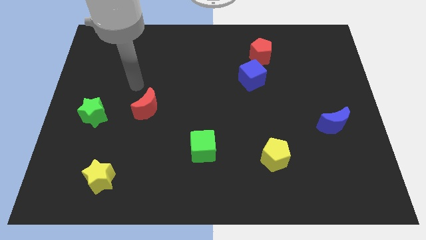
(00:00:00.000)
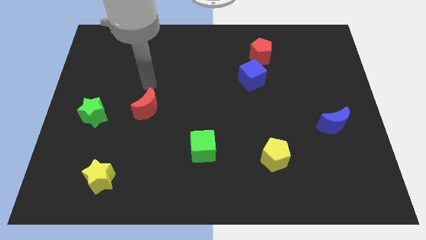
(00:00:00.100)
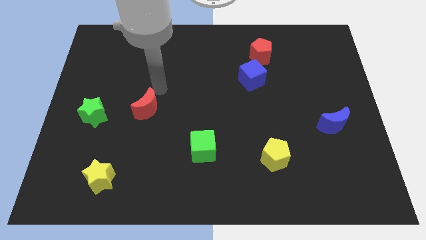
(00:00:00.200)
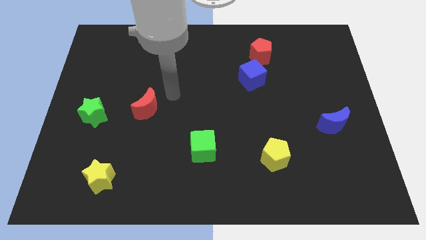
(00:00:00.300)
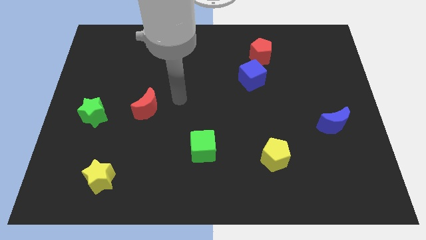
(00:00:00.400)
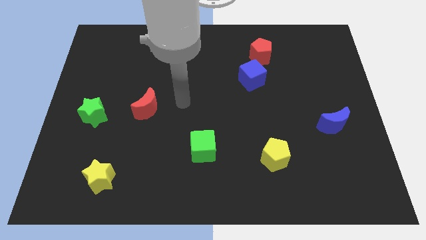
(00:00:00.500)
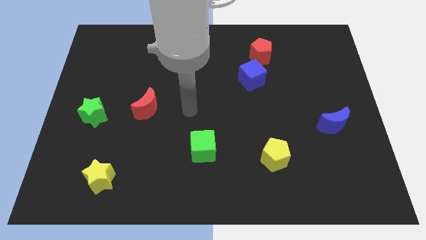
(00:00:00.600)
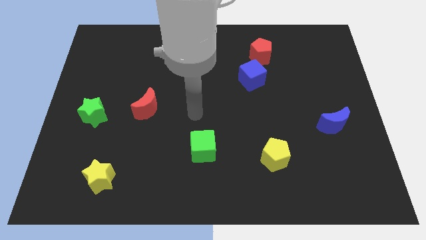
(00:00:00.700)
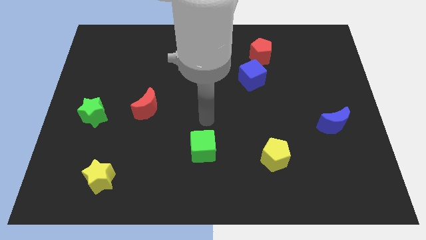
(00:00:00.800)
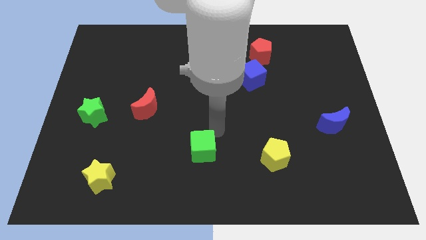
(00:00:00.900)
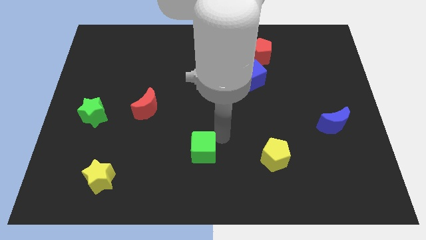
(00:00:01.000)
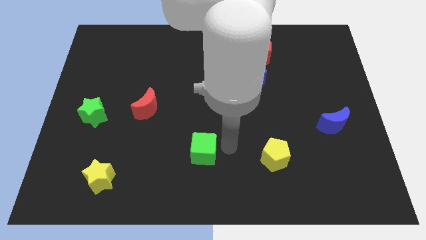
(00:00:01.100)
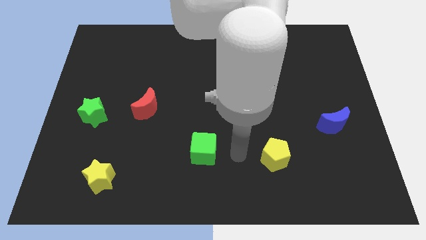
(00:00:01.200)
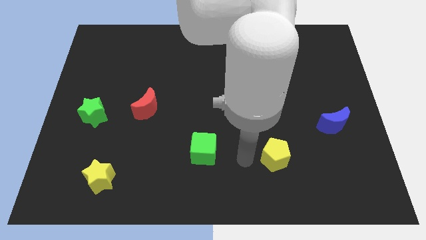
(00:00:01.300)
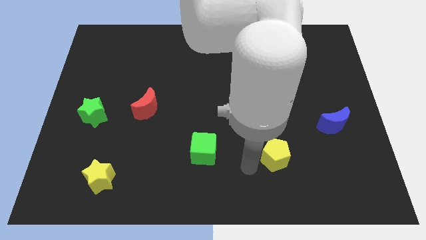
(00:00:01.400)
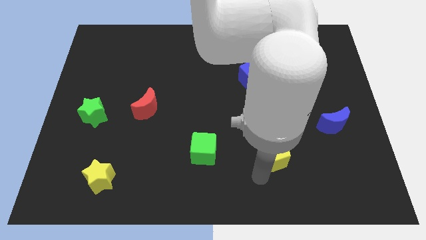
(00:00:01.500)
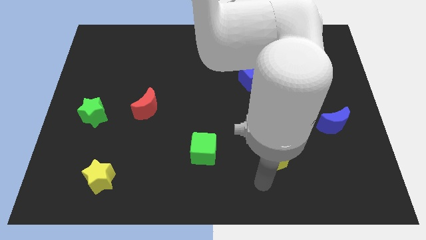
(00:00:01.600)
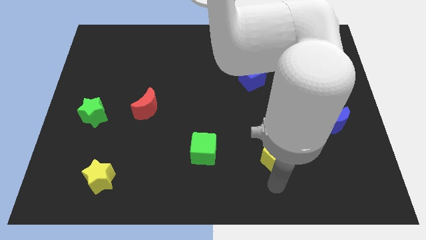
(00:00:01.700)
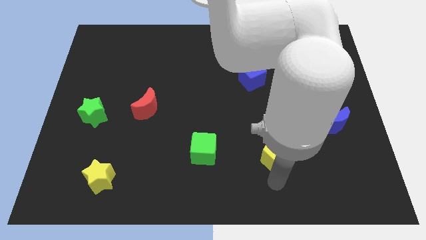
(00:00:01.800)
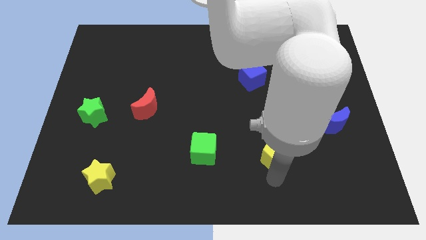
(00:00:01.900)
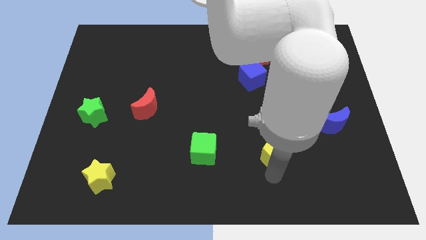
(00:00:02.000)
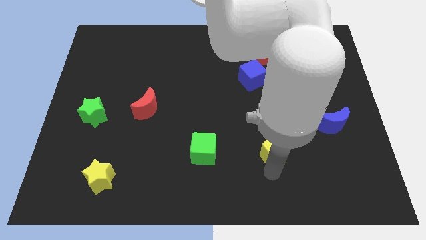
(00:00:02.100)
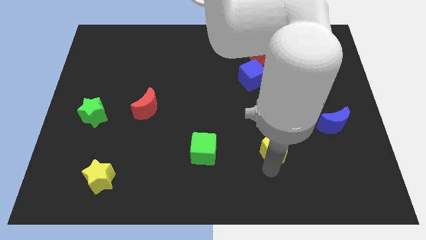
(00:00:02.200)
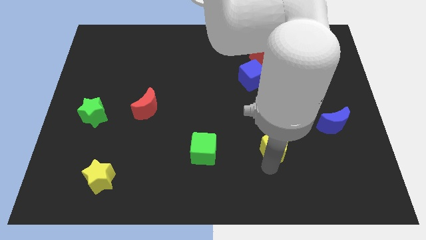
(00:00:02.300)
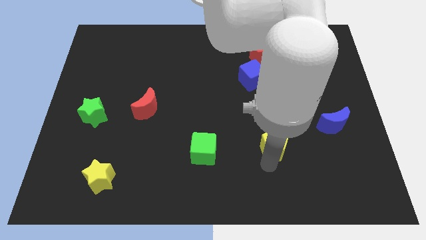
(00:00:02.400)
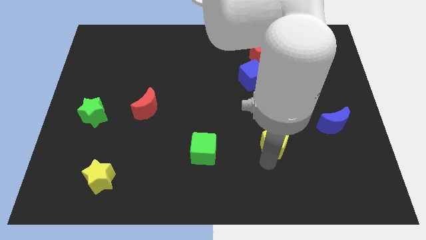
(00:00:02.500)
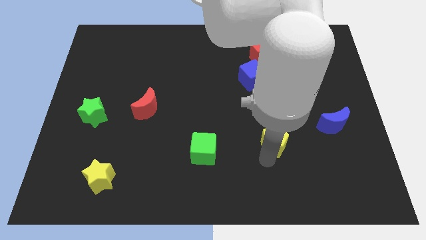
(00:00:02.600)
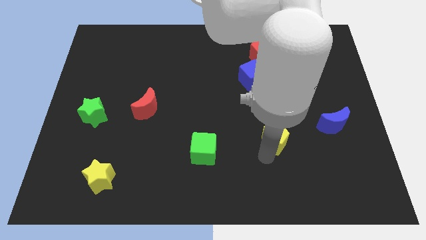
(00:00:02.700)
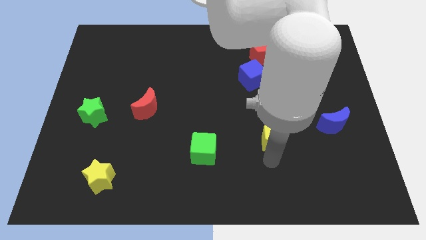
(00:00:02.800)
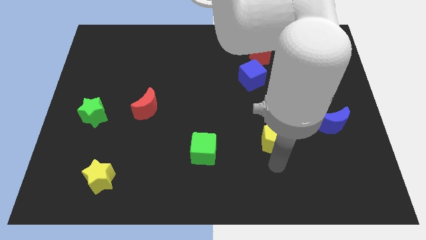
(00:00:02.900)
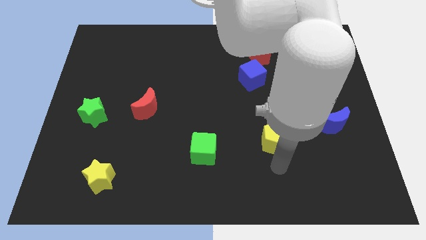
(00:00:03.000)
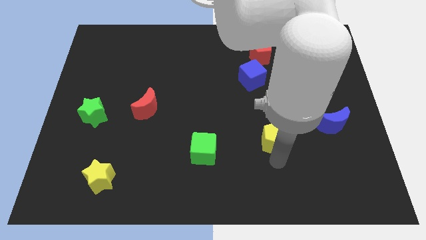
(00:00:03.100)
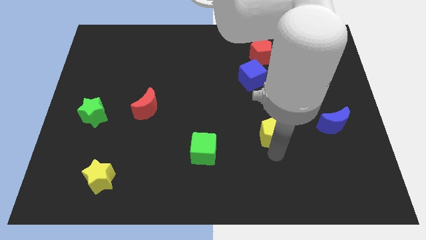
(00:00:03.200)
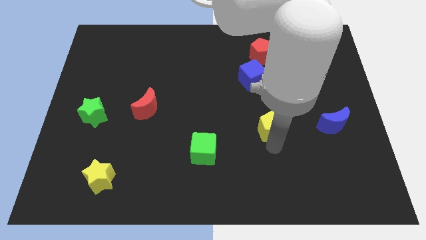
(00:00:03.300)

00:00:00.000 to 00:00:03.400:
move the yellow pentagon a little up

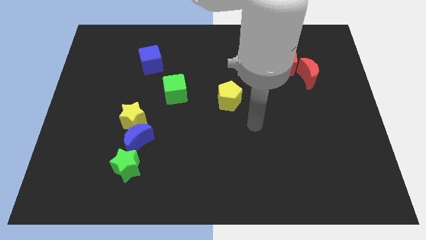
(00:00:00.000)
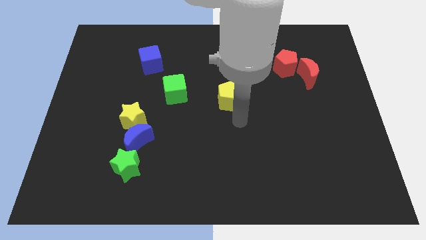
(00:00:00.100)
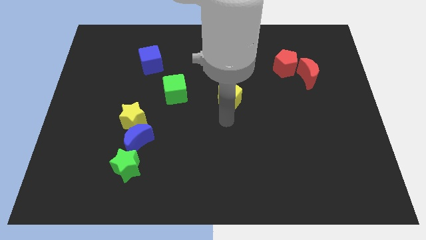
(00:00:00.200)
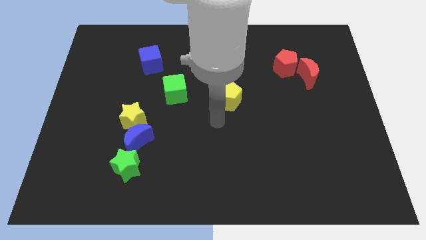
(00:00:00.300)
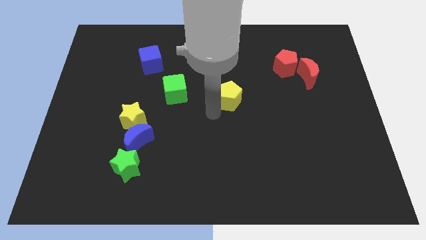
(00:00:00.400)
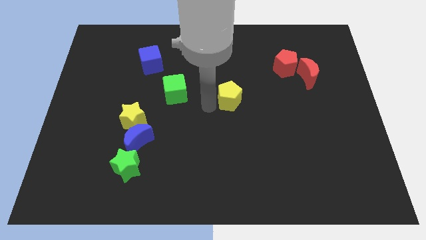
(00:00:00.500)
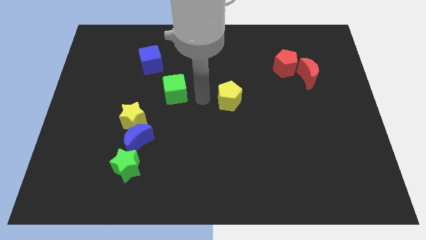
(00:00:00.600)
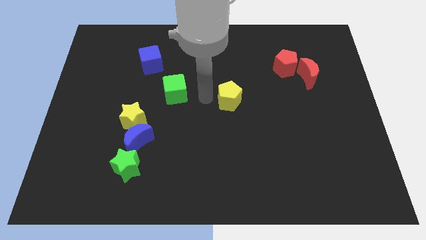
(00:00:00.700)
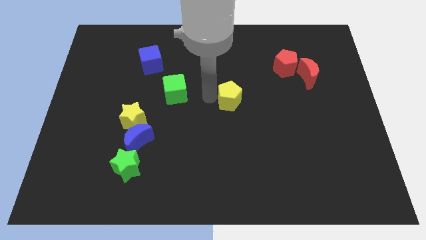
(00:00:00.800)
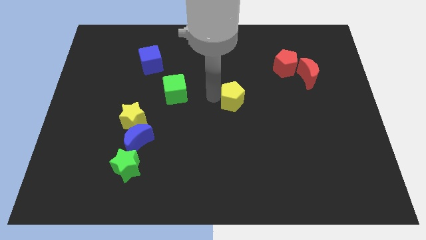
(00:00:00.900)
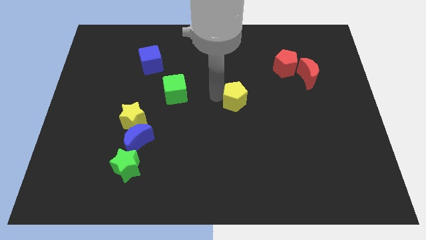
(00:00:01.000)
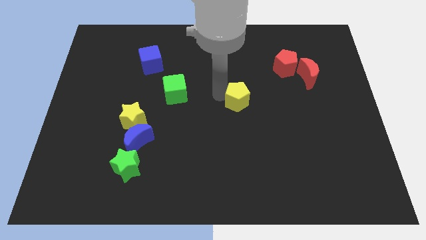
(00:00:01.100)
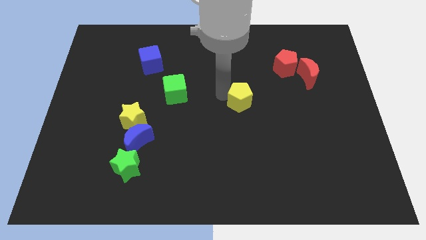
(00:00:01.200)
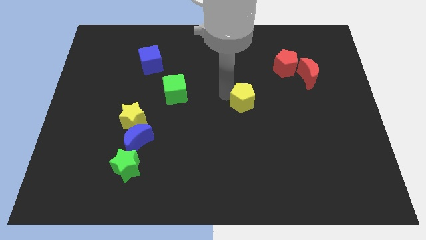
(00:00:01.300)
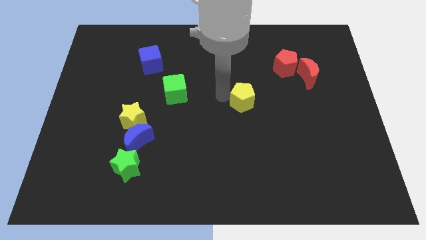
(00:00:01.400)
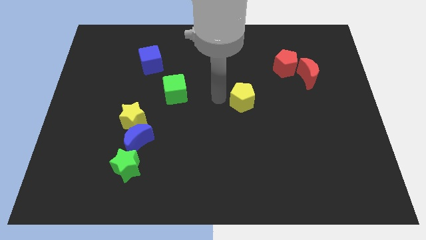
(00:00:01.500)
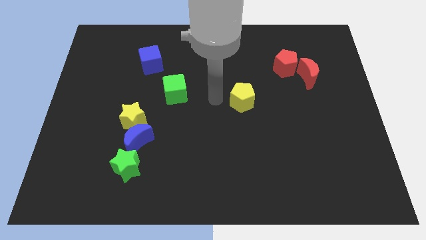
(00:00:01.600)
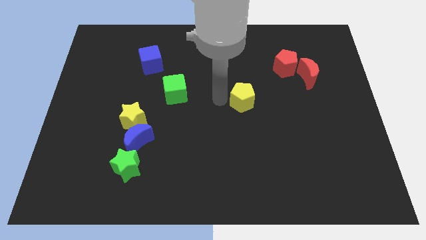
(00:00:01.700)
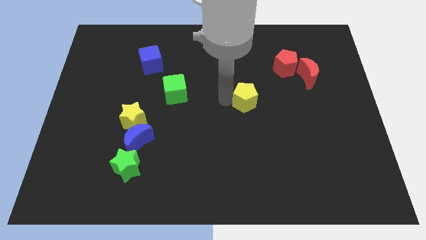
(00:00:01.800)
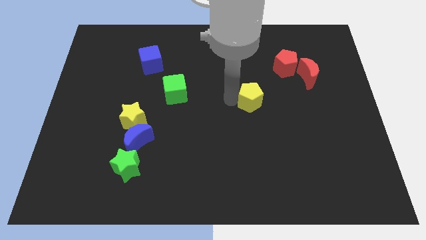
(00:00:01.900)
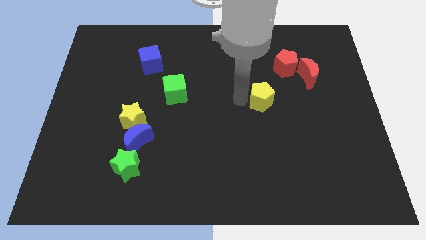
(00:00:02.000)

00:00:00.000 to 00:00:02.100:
move the yellow pentagon slightly right

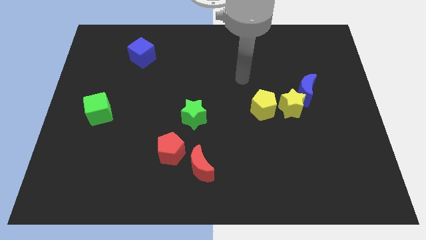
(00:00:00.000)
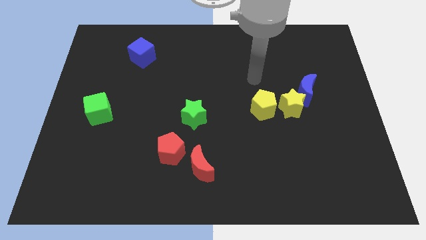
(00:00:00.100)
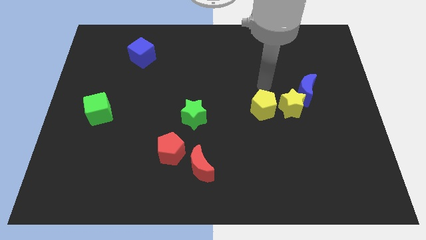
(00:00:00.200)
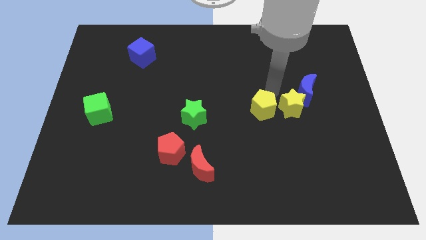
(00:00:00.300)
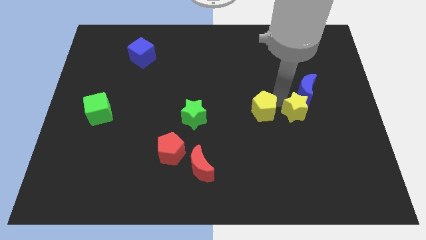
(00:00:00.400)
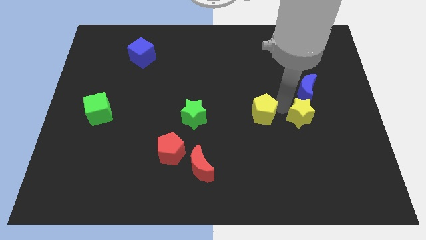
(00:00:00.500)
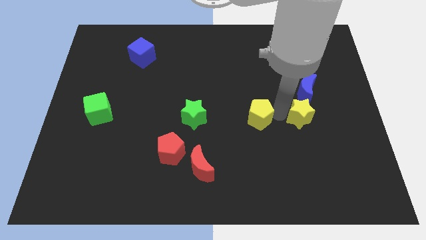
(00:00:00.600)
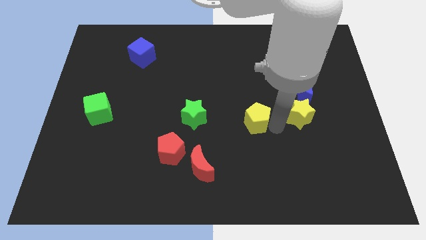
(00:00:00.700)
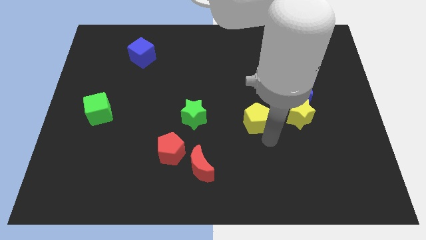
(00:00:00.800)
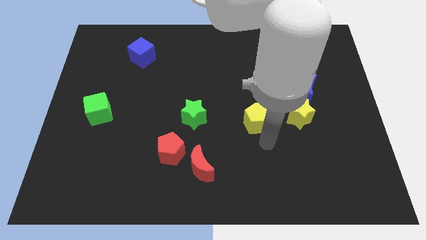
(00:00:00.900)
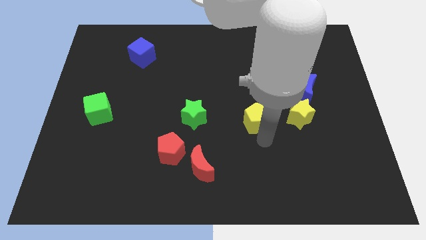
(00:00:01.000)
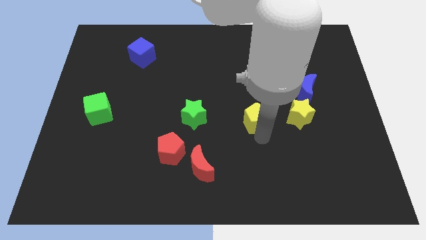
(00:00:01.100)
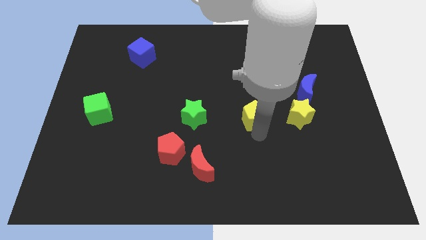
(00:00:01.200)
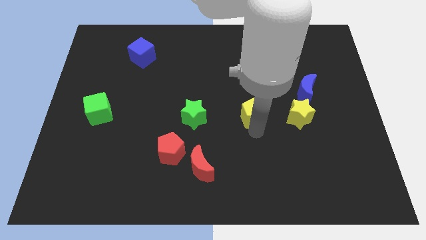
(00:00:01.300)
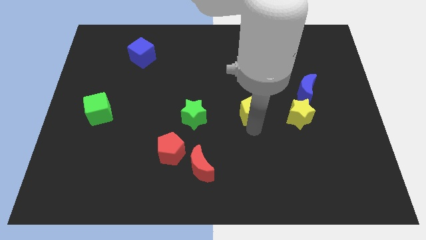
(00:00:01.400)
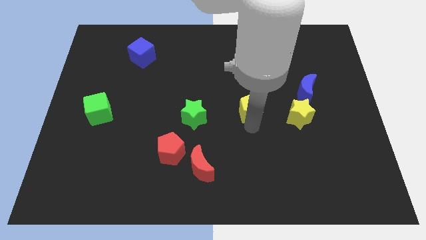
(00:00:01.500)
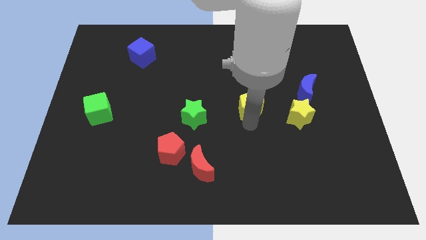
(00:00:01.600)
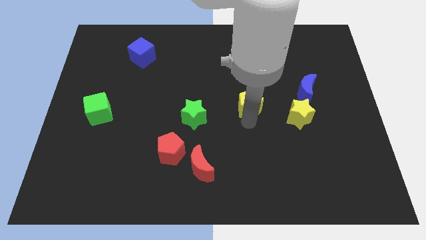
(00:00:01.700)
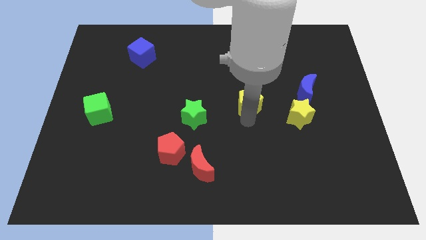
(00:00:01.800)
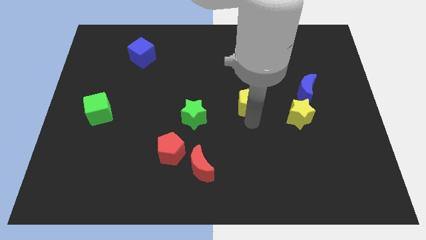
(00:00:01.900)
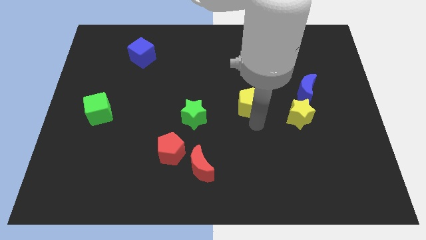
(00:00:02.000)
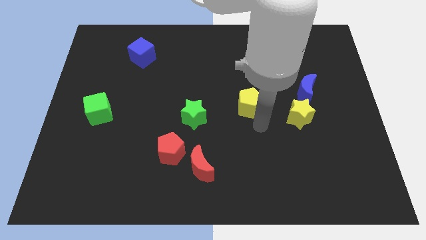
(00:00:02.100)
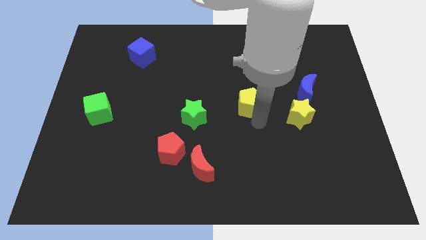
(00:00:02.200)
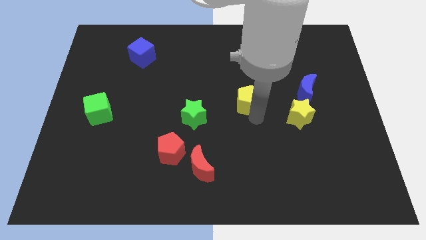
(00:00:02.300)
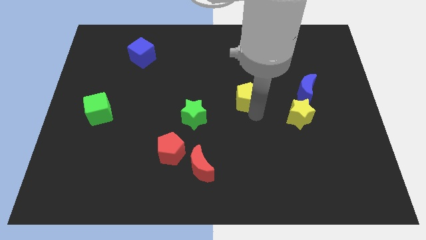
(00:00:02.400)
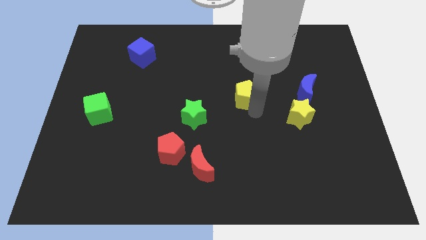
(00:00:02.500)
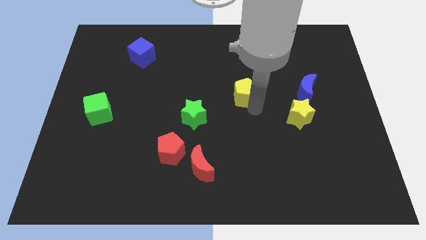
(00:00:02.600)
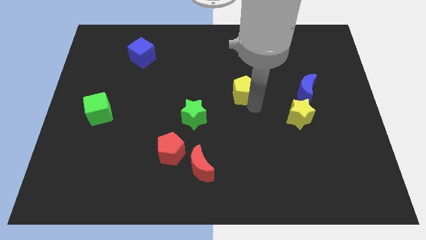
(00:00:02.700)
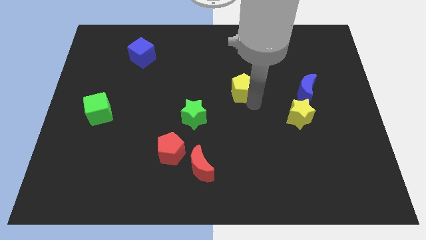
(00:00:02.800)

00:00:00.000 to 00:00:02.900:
push the yellow pentagon up and left diagonally a little
